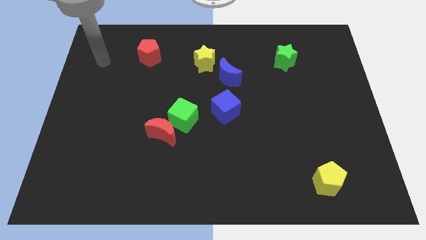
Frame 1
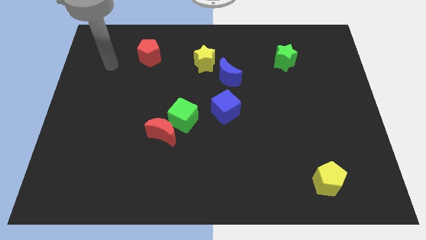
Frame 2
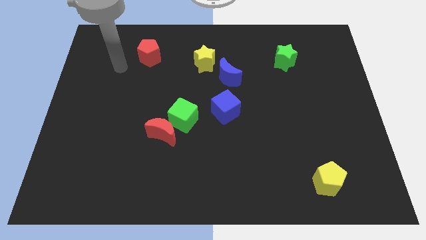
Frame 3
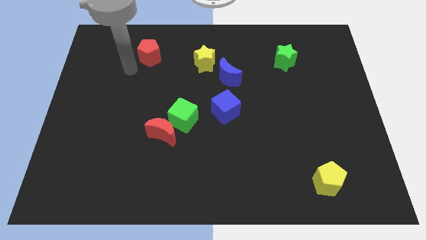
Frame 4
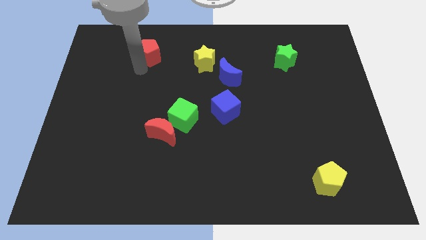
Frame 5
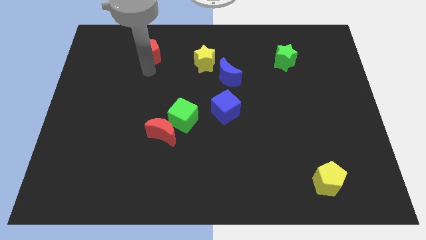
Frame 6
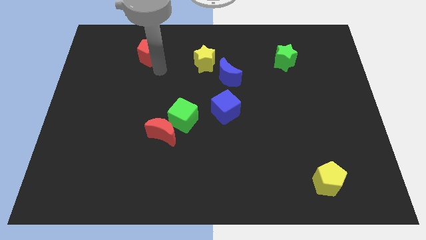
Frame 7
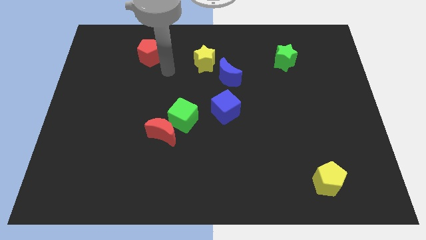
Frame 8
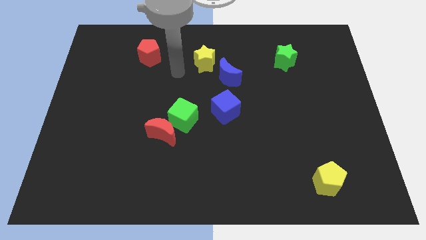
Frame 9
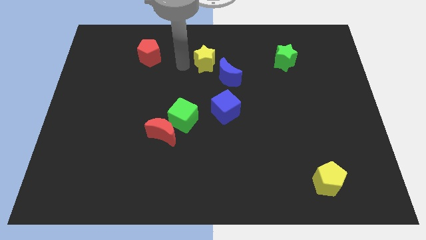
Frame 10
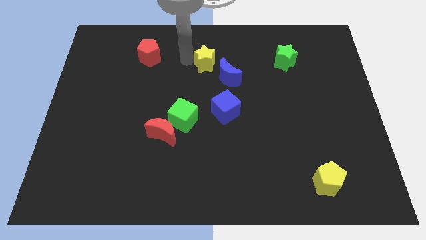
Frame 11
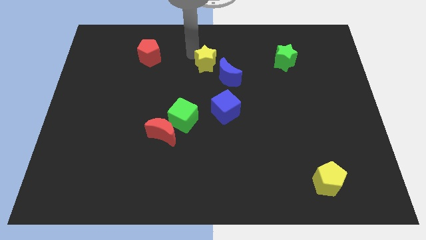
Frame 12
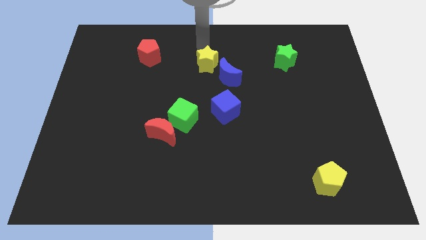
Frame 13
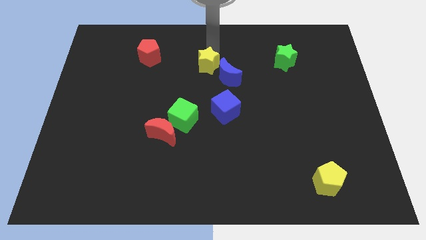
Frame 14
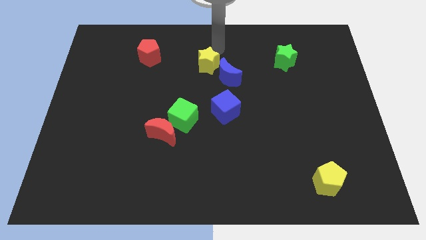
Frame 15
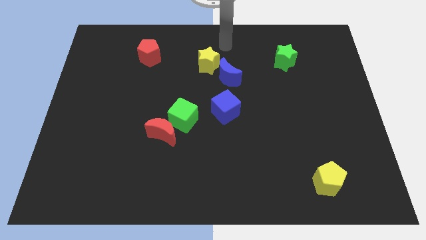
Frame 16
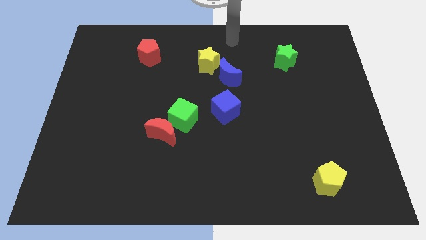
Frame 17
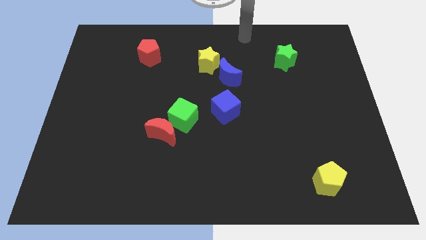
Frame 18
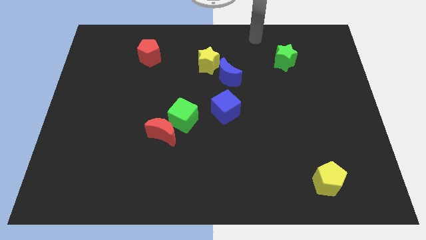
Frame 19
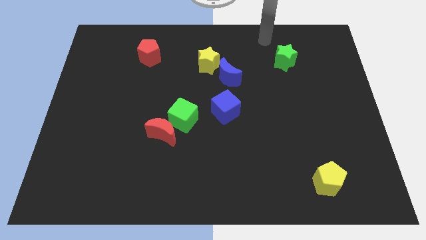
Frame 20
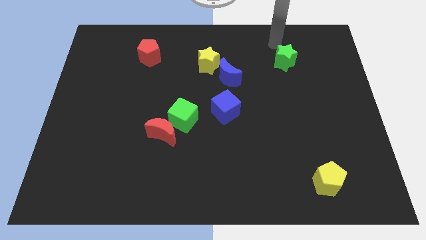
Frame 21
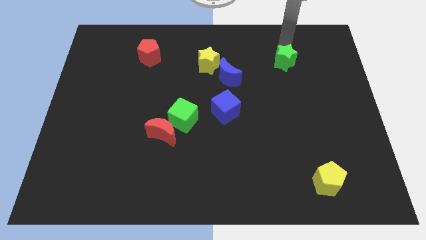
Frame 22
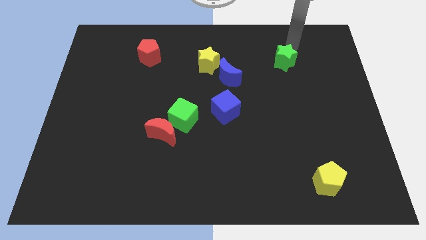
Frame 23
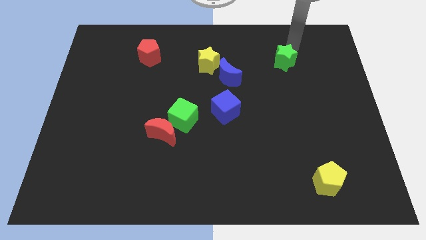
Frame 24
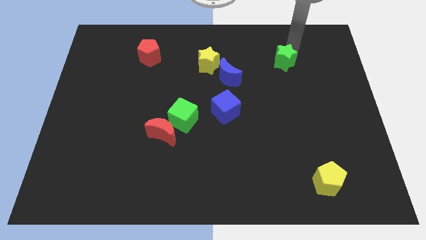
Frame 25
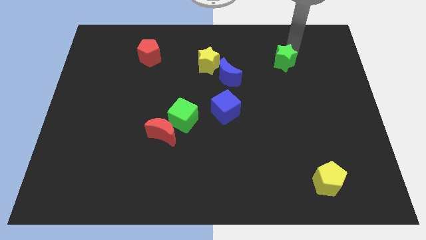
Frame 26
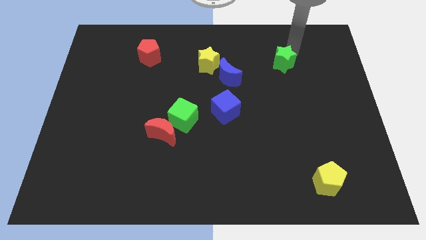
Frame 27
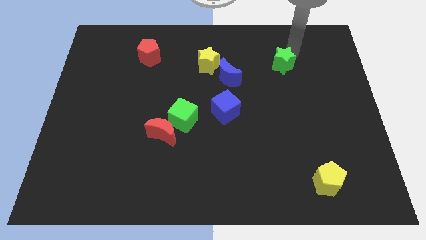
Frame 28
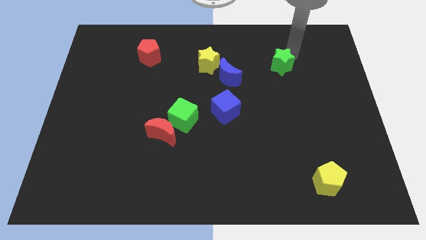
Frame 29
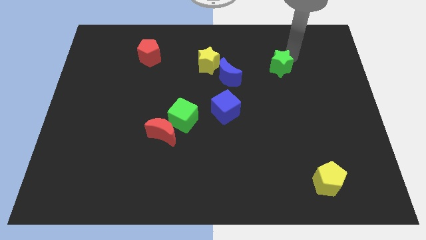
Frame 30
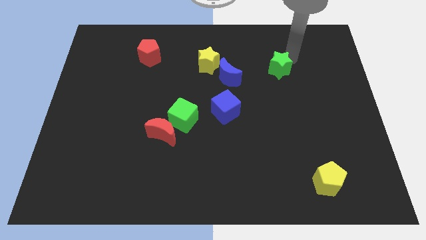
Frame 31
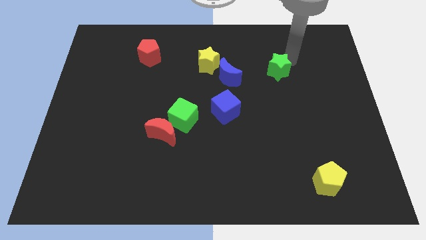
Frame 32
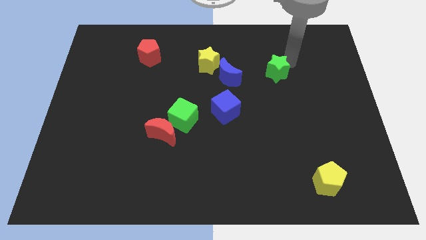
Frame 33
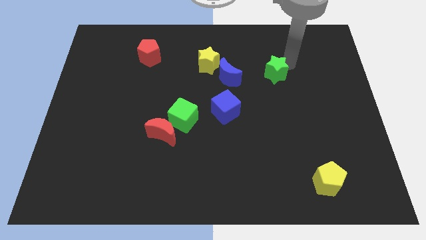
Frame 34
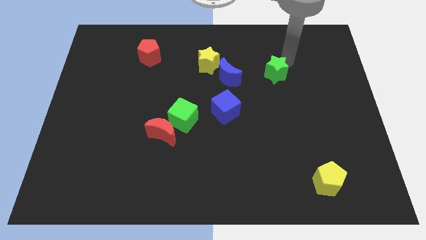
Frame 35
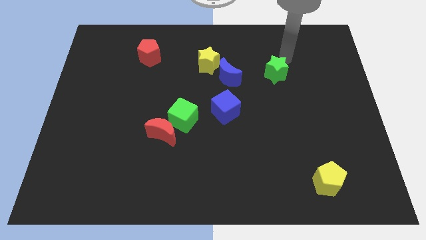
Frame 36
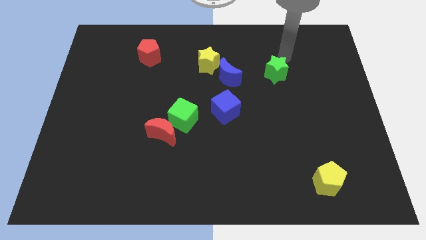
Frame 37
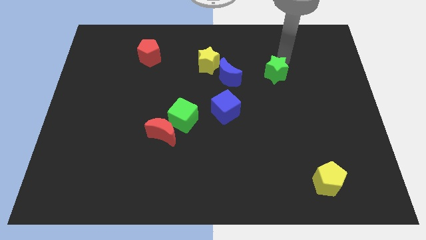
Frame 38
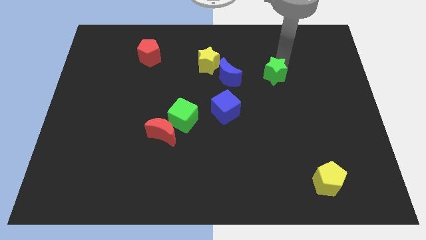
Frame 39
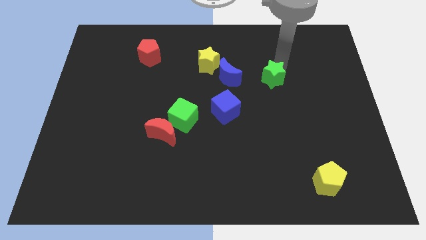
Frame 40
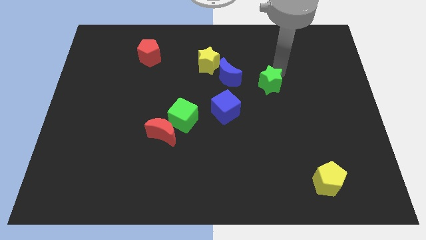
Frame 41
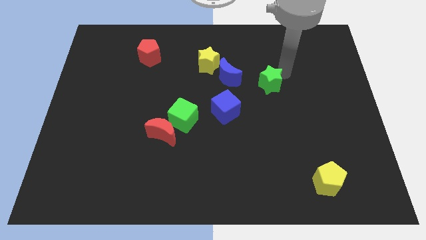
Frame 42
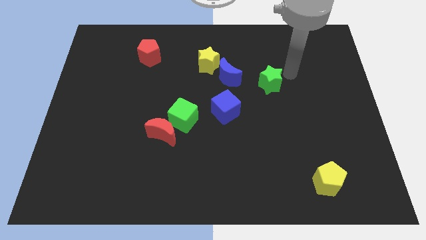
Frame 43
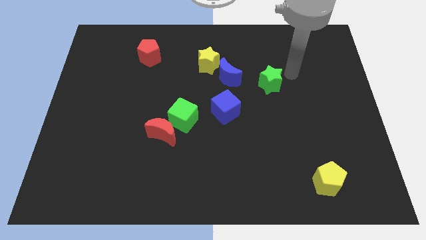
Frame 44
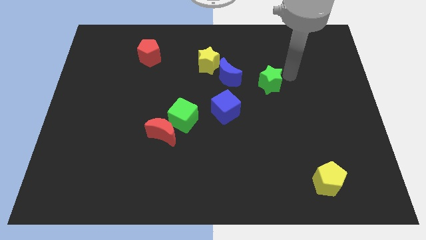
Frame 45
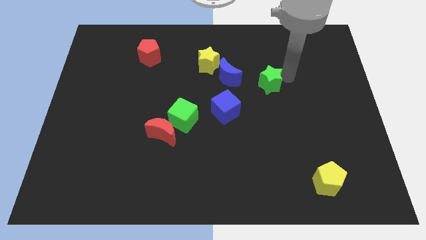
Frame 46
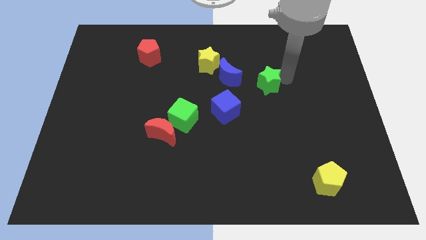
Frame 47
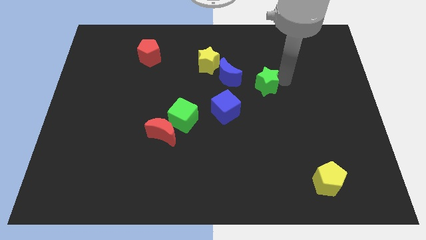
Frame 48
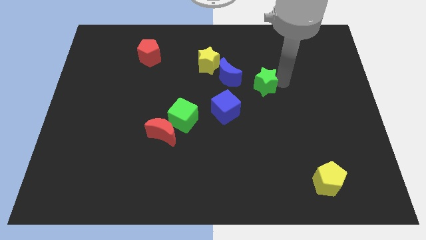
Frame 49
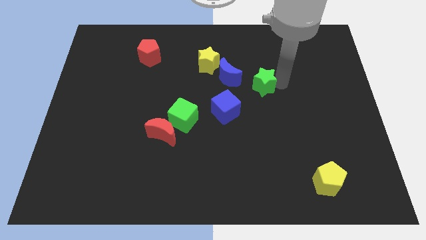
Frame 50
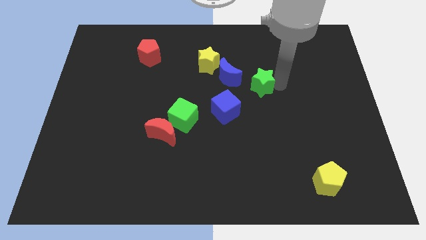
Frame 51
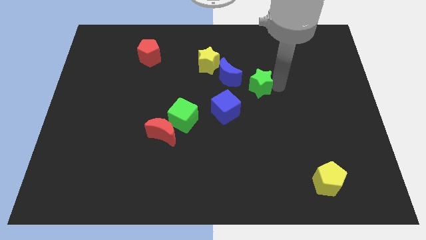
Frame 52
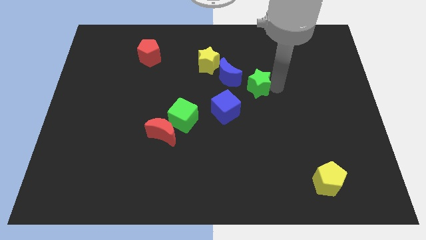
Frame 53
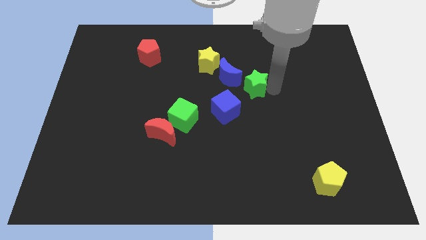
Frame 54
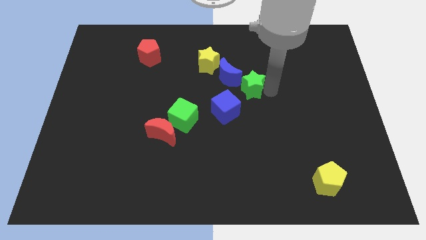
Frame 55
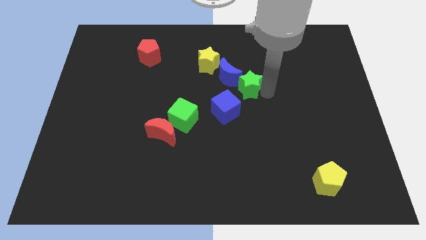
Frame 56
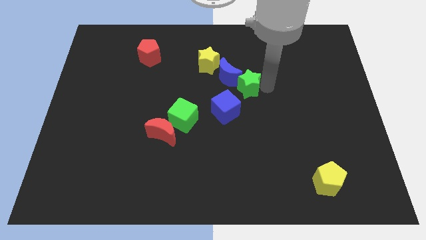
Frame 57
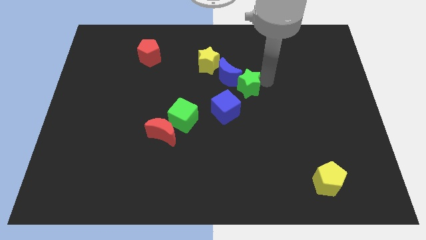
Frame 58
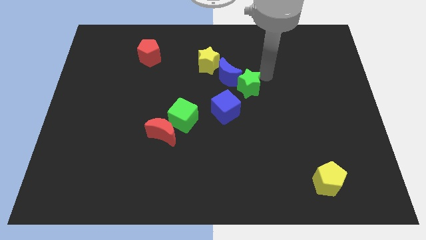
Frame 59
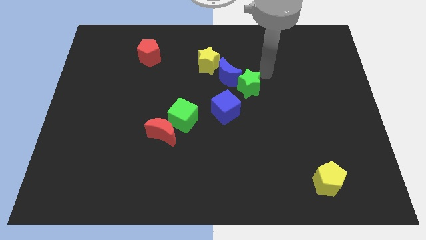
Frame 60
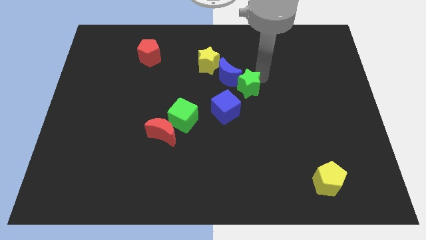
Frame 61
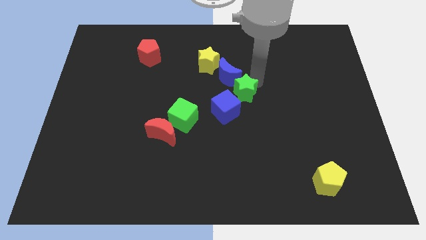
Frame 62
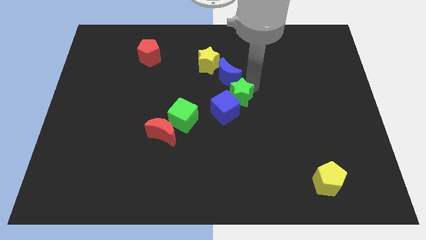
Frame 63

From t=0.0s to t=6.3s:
slide the green star towards the blue cube

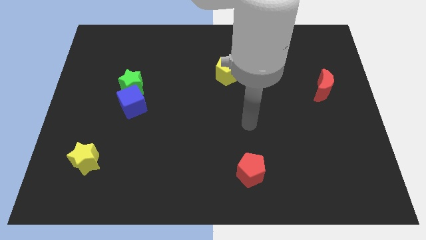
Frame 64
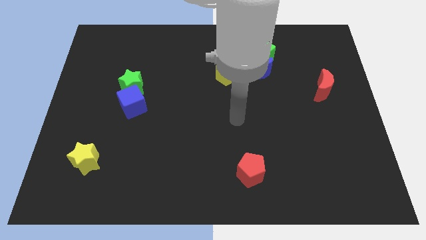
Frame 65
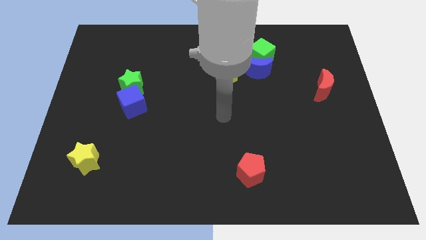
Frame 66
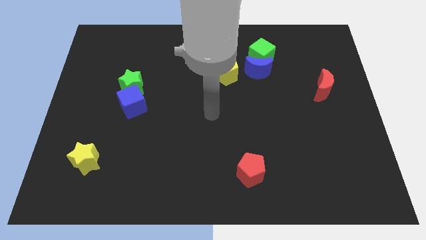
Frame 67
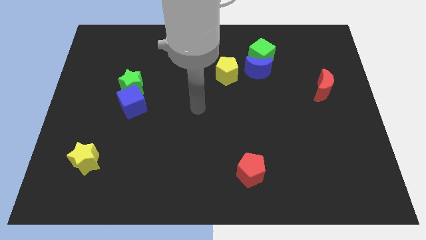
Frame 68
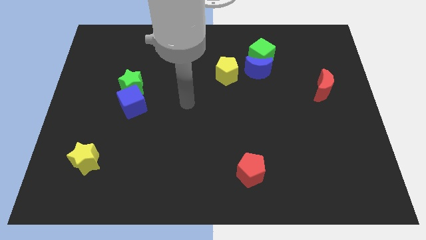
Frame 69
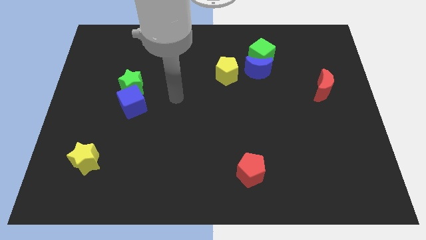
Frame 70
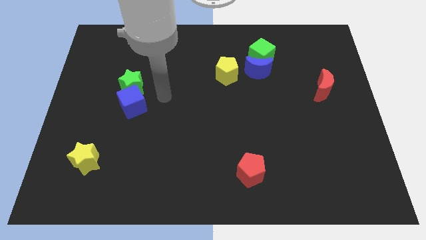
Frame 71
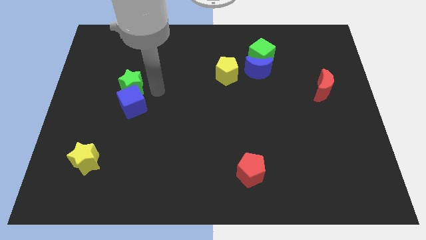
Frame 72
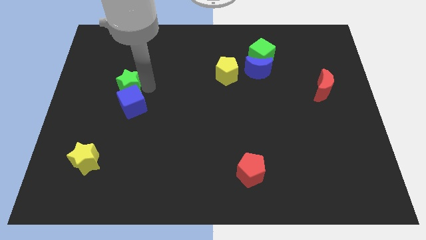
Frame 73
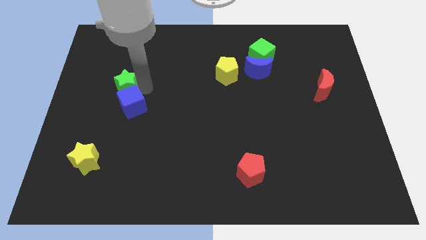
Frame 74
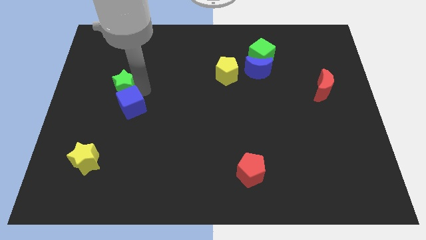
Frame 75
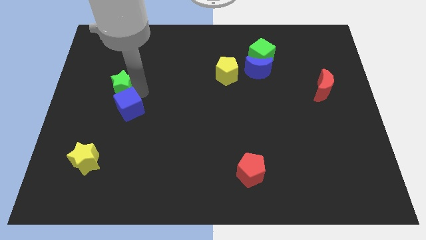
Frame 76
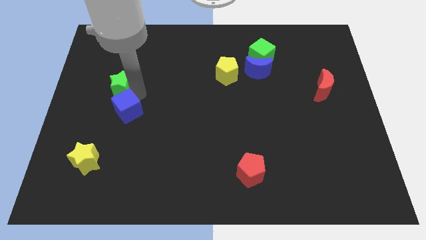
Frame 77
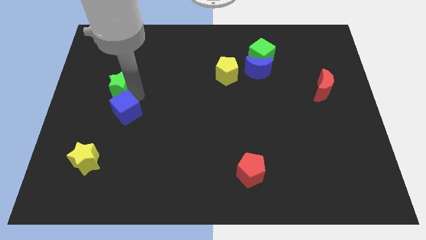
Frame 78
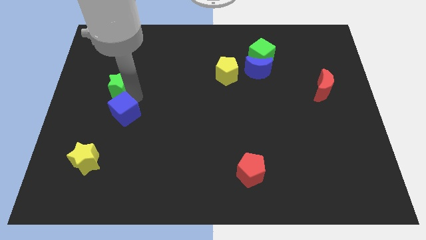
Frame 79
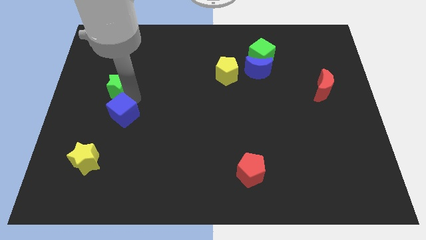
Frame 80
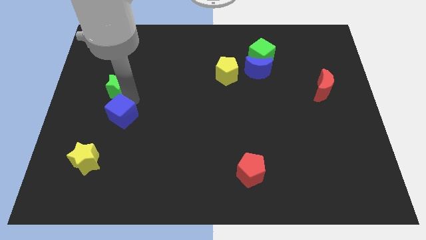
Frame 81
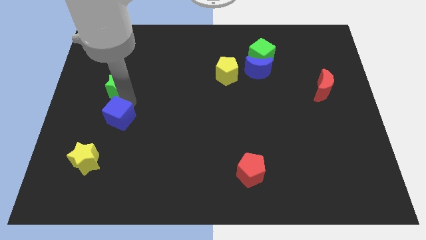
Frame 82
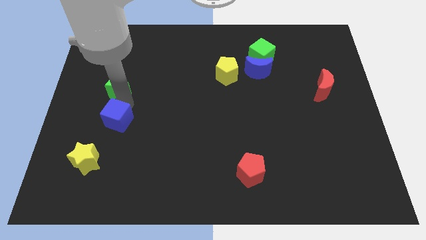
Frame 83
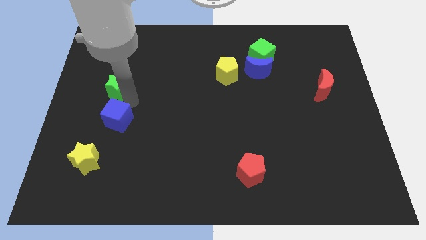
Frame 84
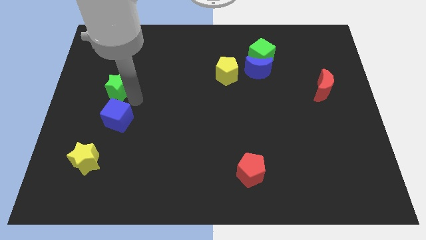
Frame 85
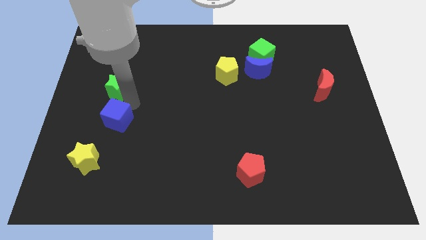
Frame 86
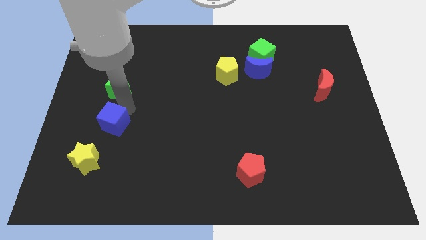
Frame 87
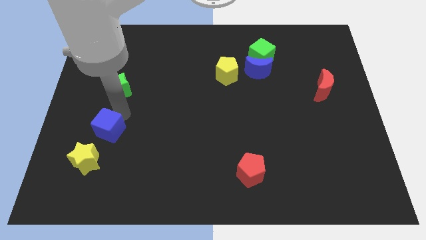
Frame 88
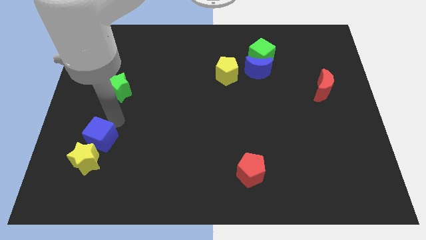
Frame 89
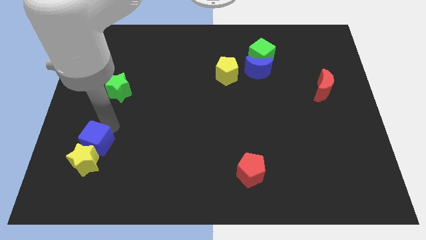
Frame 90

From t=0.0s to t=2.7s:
put the blue cube to the yellow star
